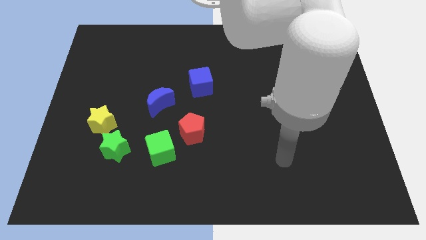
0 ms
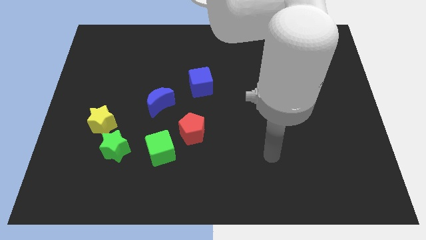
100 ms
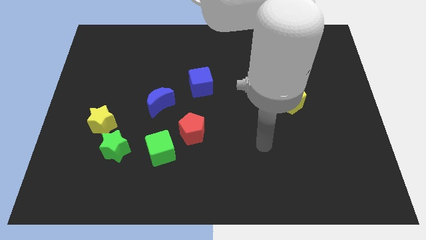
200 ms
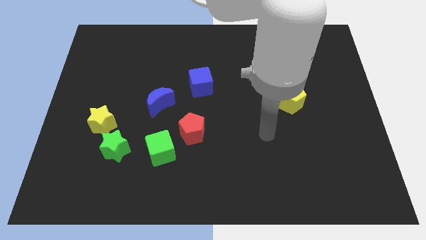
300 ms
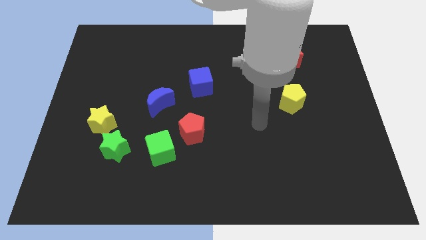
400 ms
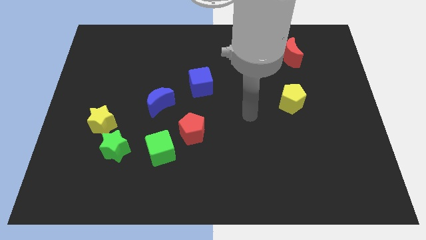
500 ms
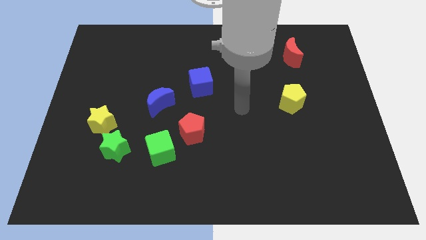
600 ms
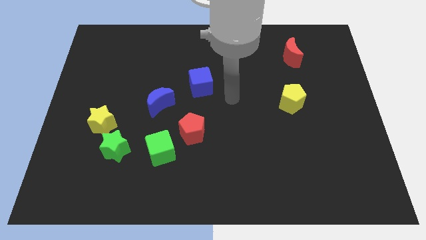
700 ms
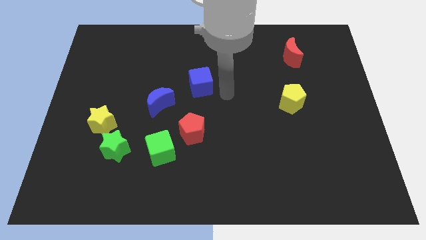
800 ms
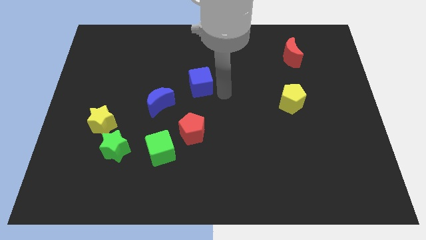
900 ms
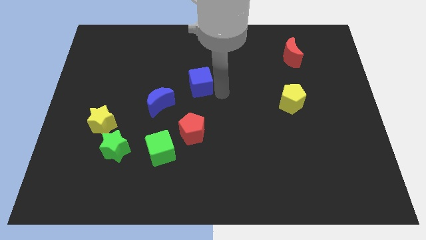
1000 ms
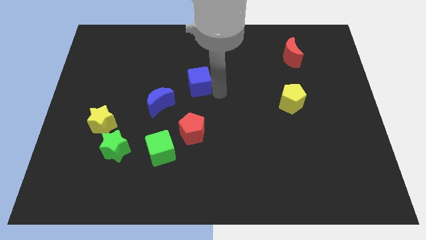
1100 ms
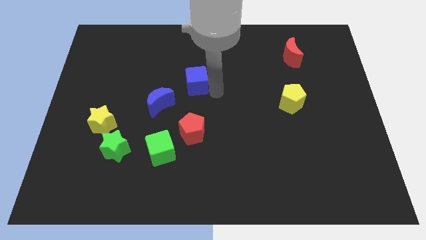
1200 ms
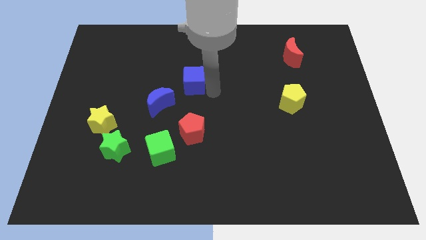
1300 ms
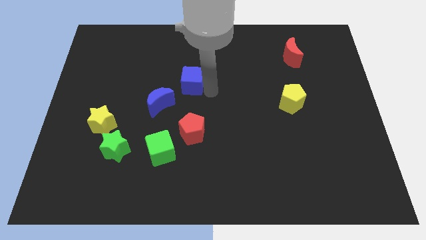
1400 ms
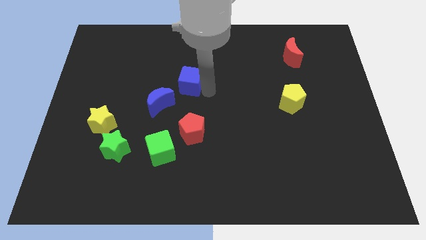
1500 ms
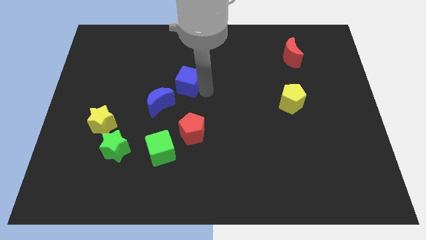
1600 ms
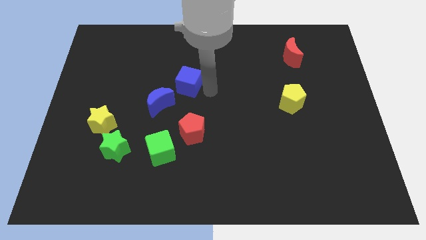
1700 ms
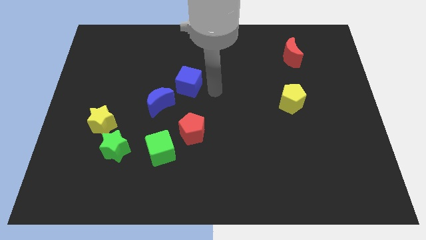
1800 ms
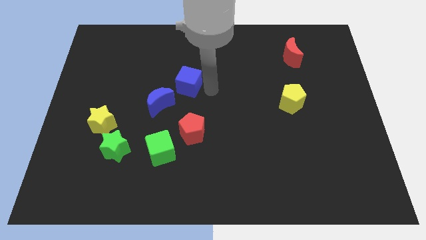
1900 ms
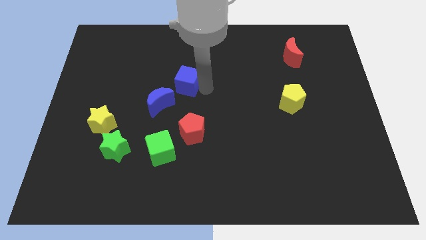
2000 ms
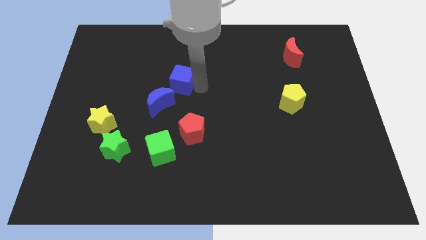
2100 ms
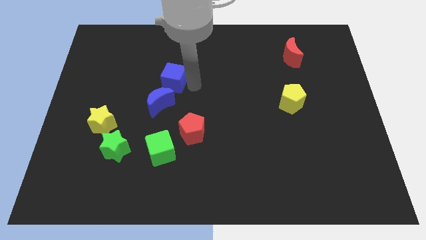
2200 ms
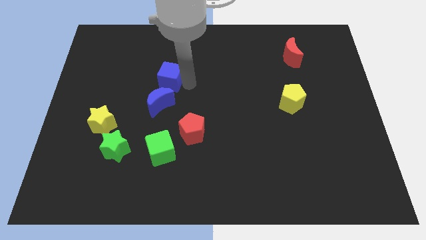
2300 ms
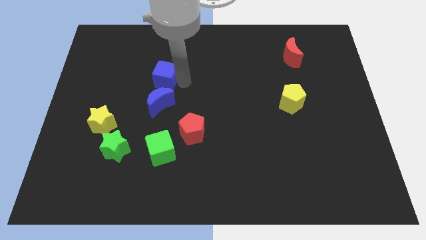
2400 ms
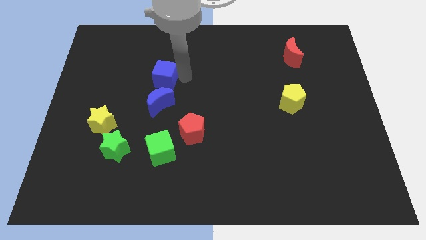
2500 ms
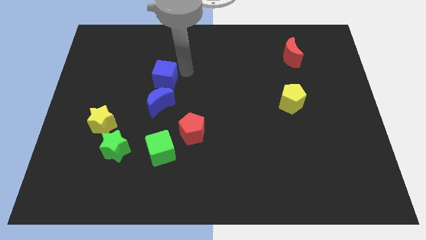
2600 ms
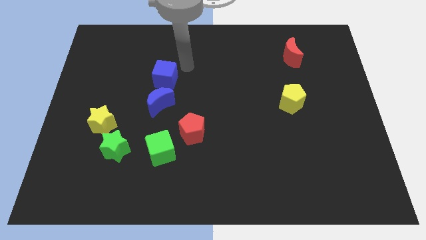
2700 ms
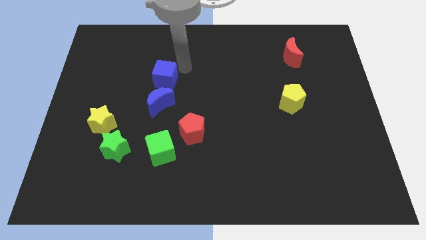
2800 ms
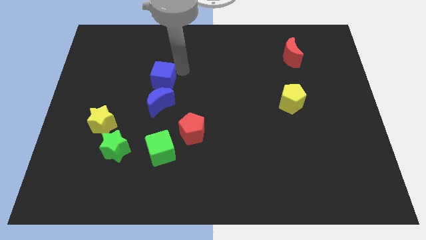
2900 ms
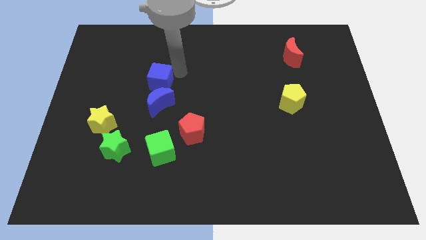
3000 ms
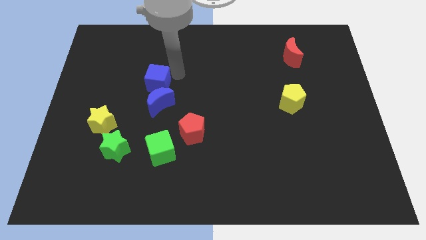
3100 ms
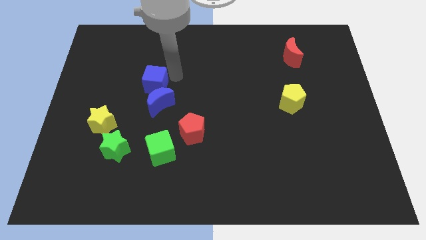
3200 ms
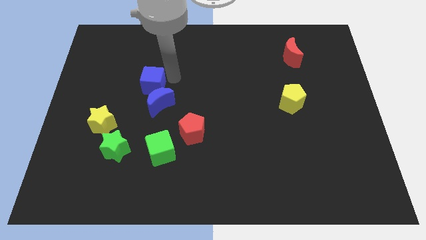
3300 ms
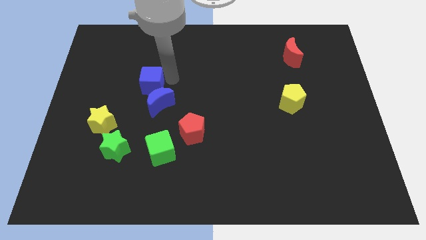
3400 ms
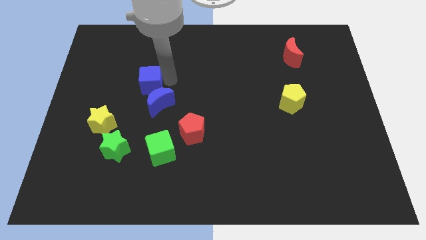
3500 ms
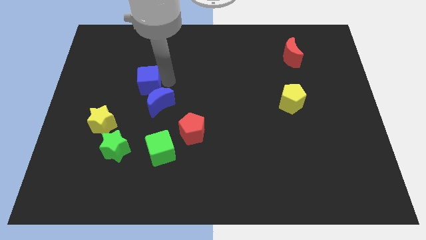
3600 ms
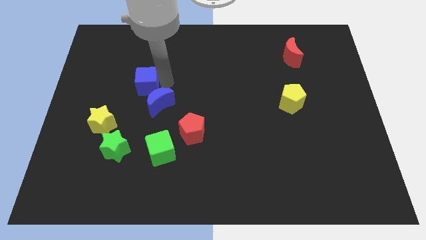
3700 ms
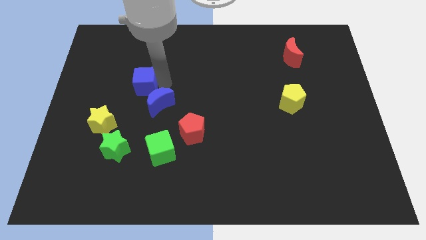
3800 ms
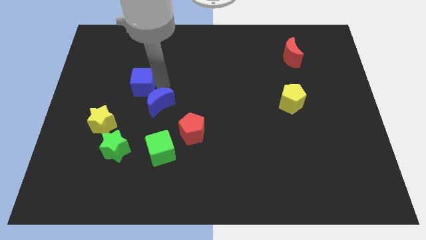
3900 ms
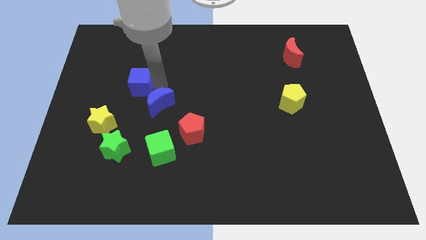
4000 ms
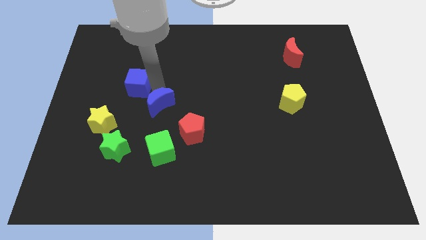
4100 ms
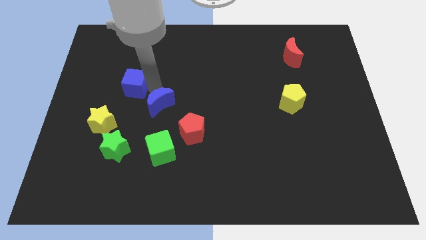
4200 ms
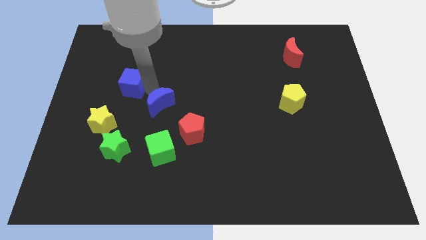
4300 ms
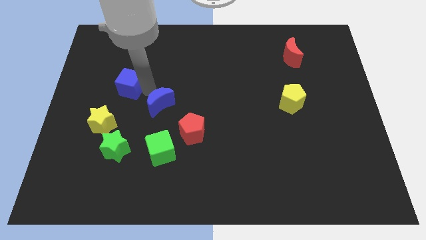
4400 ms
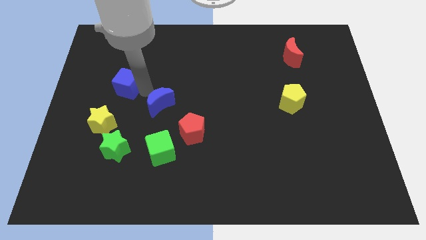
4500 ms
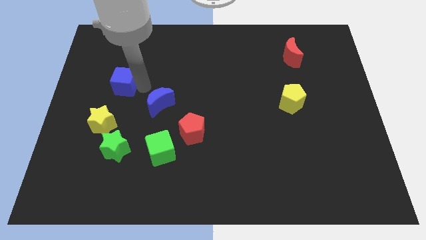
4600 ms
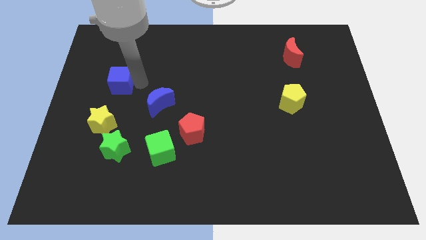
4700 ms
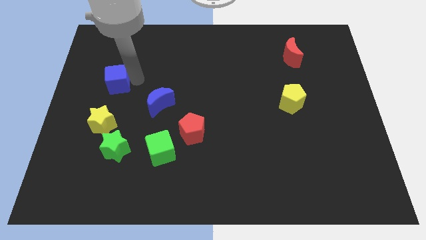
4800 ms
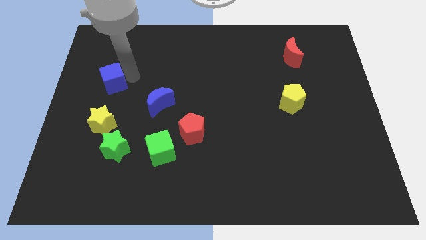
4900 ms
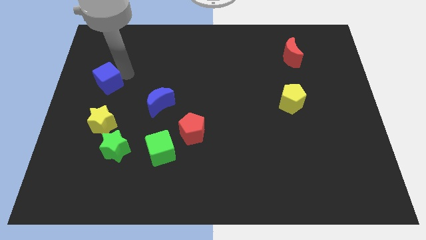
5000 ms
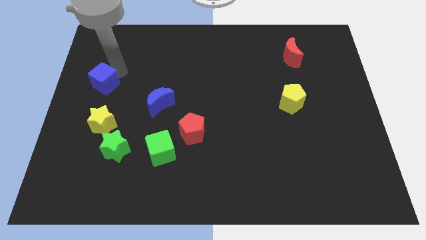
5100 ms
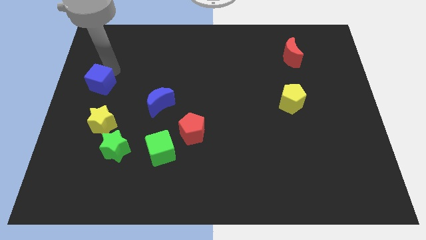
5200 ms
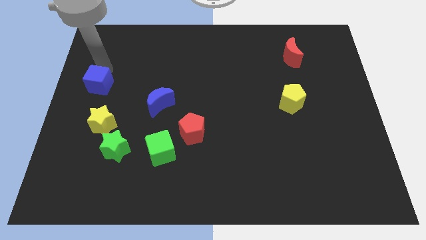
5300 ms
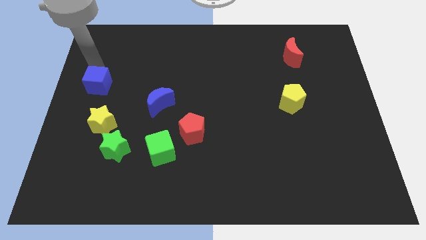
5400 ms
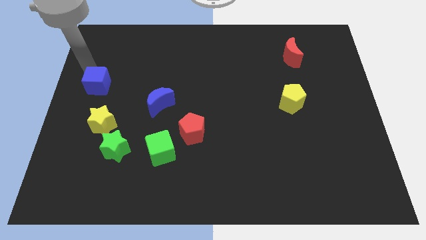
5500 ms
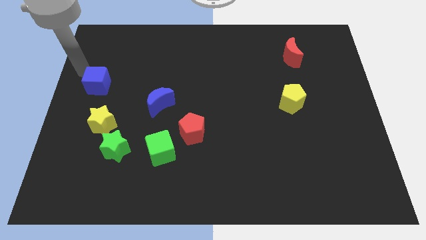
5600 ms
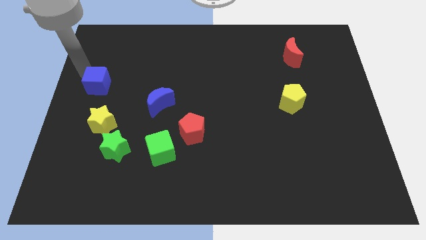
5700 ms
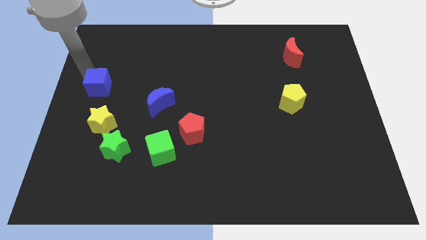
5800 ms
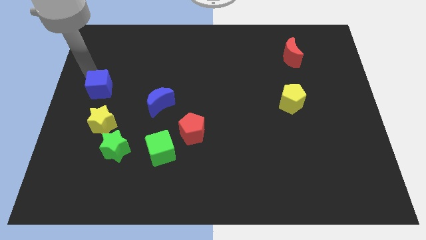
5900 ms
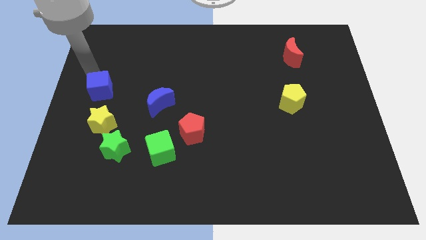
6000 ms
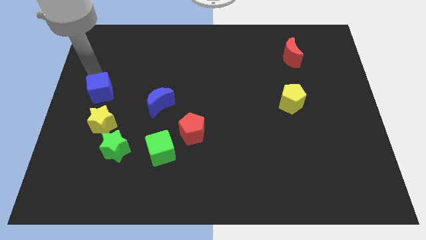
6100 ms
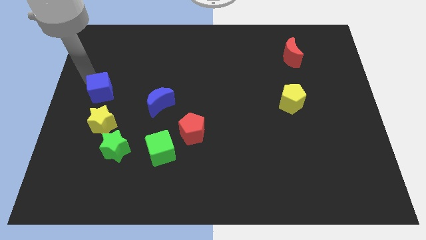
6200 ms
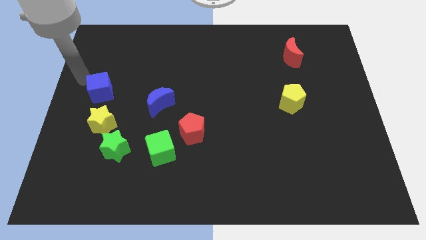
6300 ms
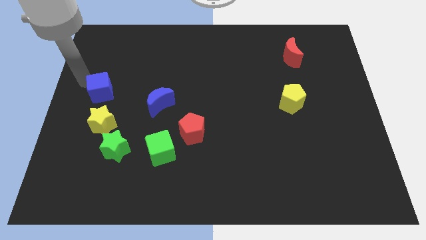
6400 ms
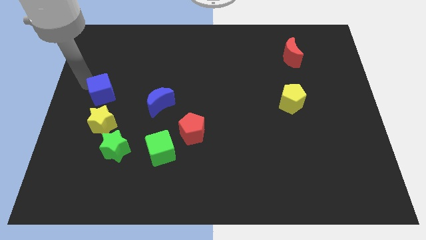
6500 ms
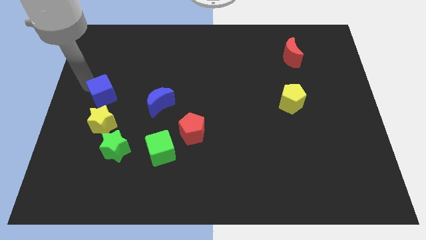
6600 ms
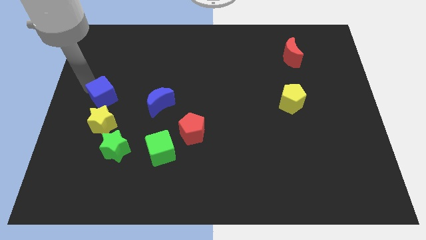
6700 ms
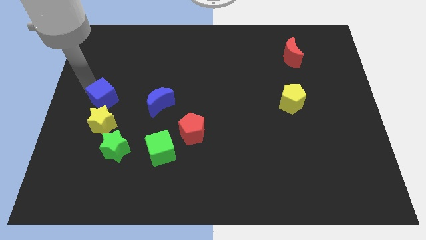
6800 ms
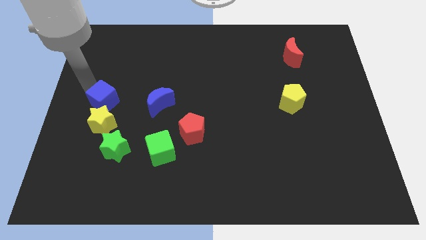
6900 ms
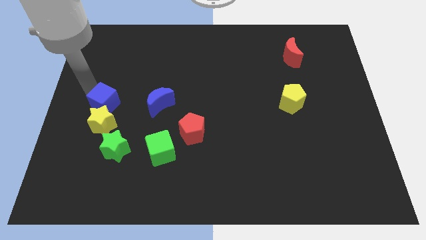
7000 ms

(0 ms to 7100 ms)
put the blue cube close to the yellow star
